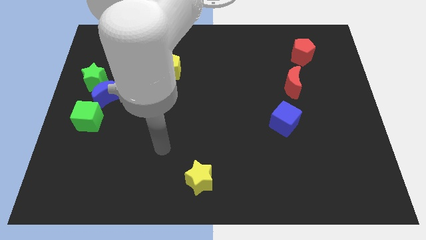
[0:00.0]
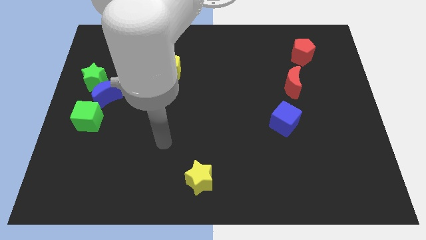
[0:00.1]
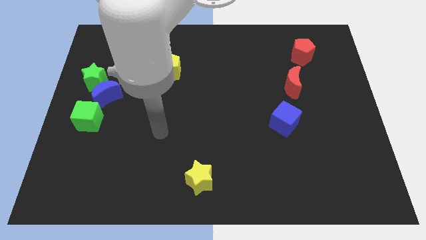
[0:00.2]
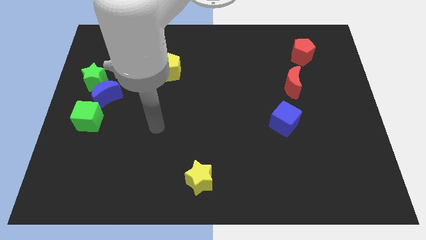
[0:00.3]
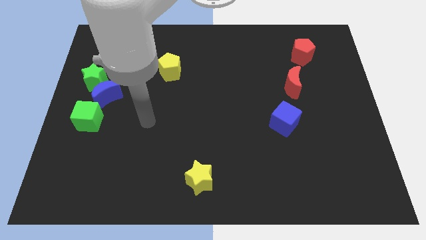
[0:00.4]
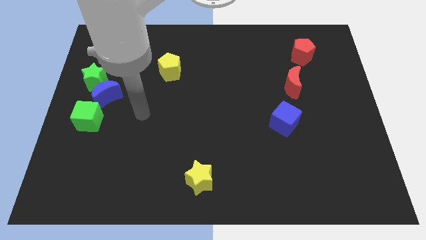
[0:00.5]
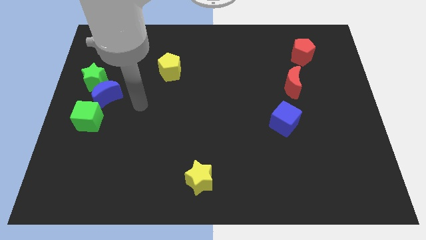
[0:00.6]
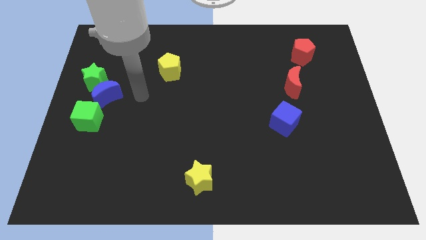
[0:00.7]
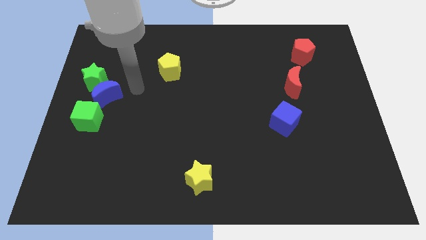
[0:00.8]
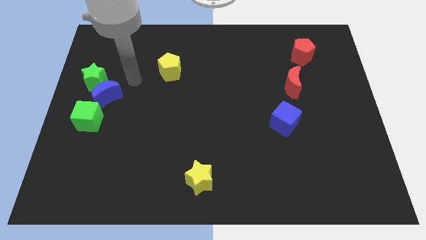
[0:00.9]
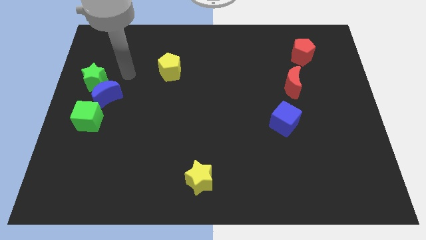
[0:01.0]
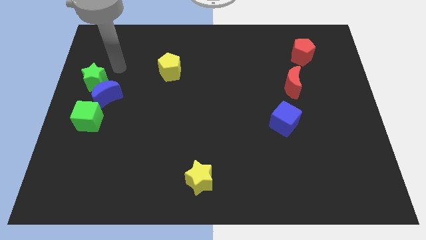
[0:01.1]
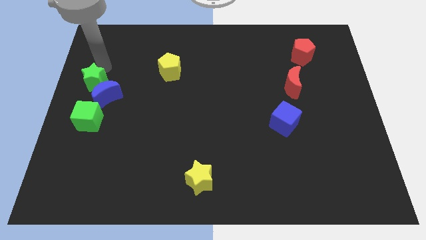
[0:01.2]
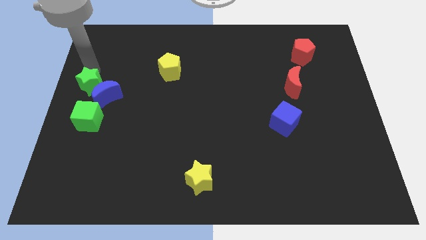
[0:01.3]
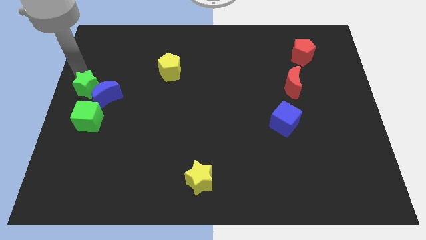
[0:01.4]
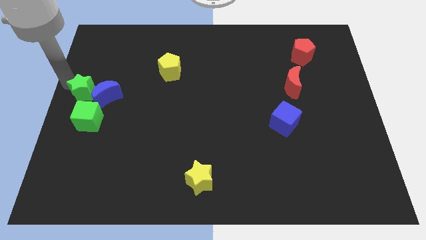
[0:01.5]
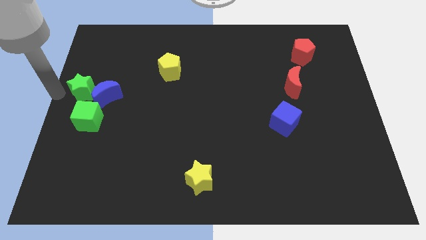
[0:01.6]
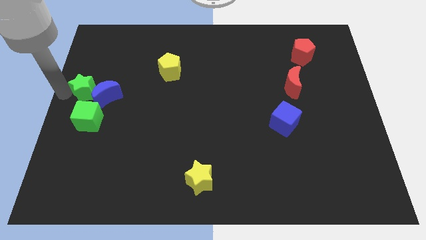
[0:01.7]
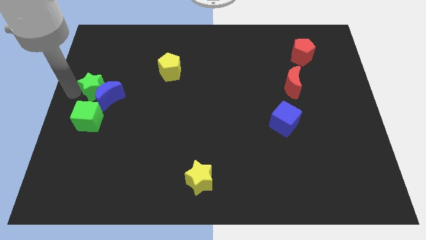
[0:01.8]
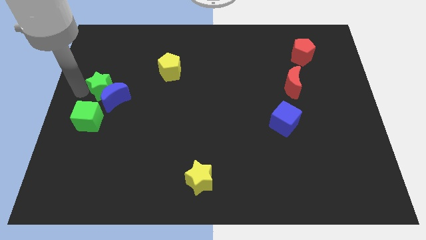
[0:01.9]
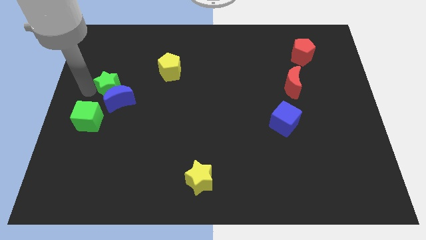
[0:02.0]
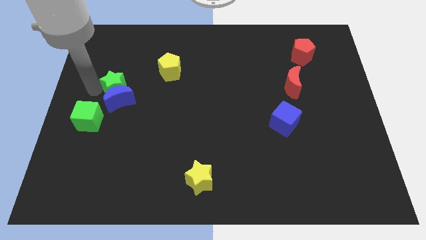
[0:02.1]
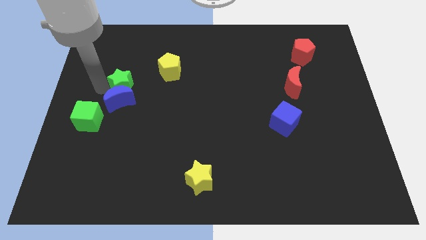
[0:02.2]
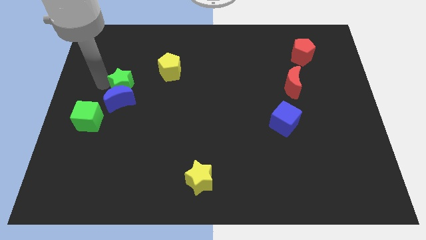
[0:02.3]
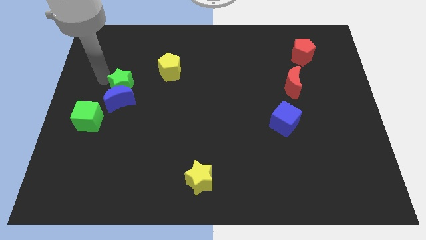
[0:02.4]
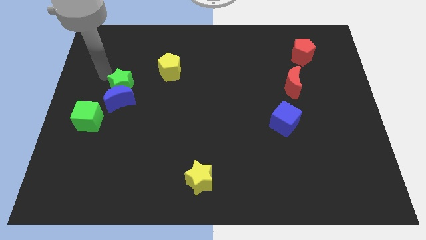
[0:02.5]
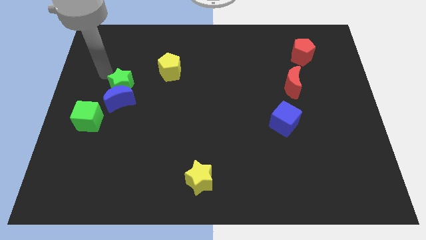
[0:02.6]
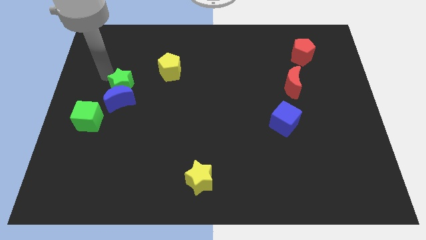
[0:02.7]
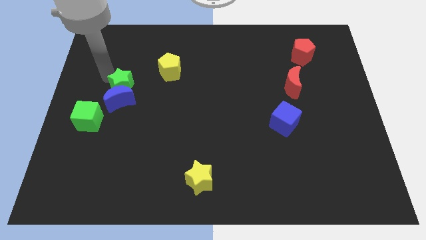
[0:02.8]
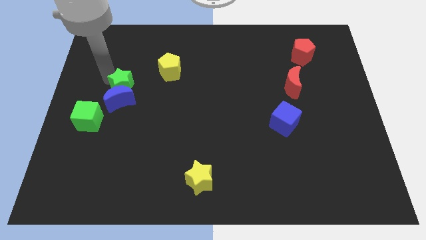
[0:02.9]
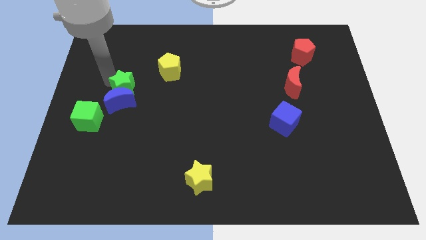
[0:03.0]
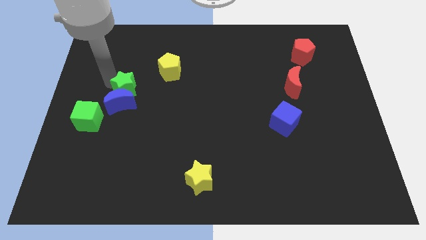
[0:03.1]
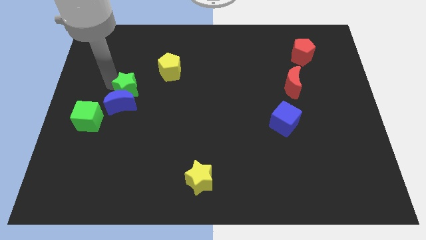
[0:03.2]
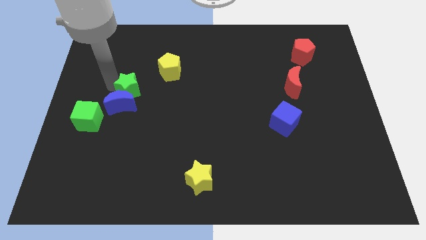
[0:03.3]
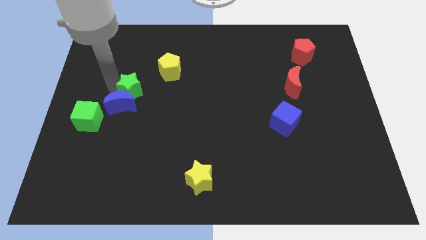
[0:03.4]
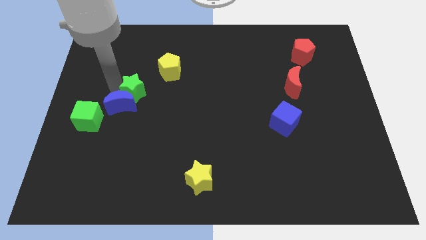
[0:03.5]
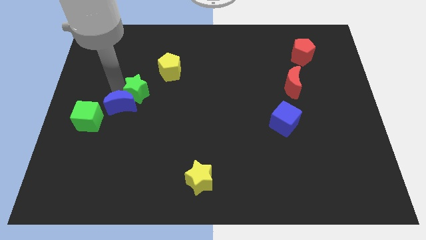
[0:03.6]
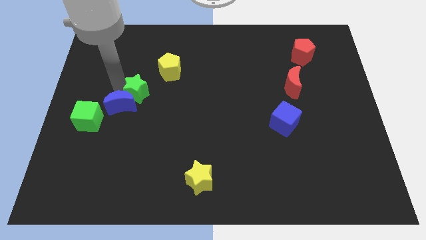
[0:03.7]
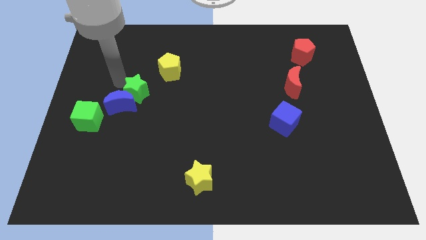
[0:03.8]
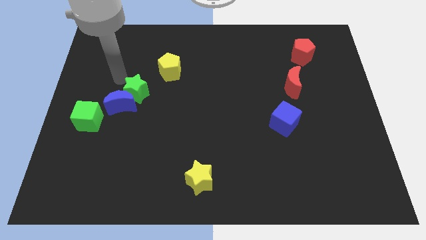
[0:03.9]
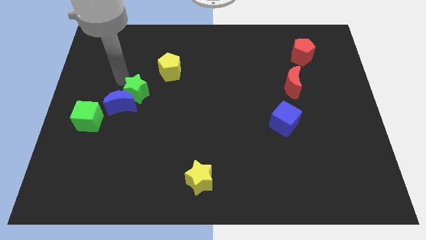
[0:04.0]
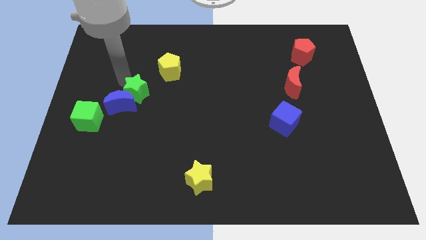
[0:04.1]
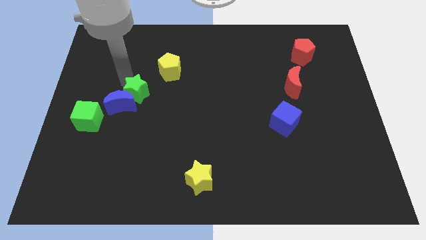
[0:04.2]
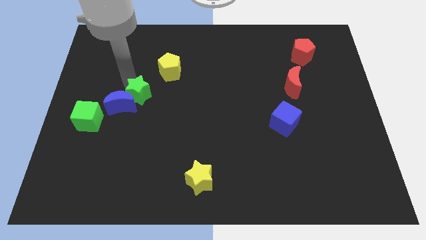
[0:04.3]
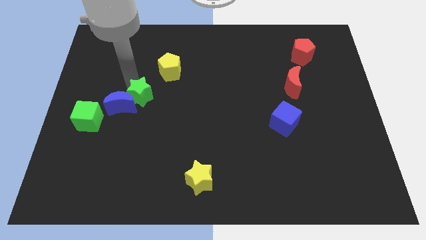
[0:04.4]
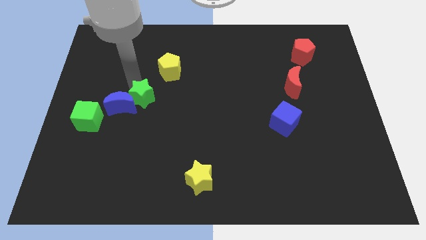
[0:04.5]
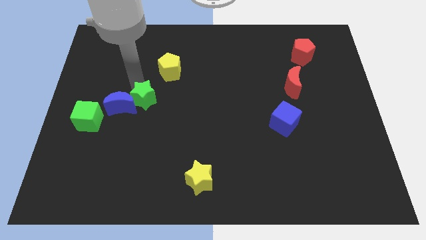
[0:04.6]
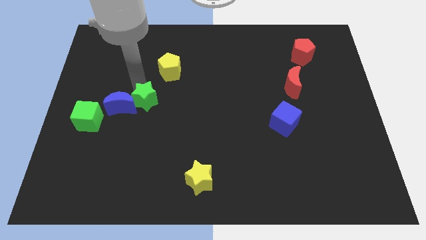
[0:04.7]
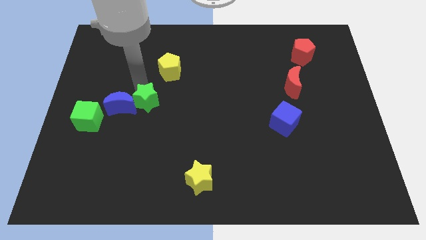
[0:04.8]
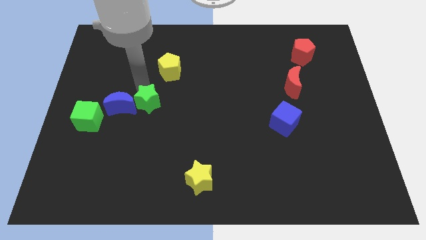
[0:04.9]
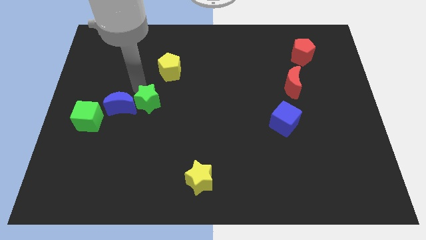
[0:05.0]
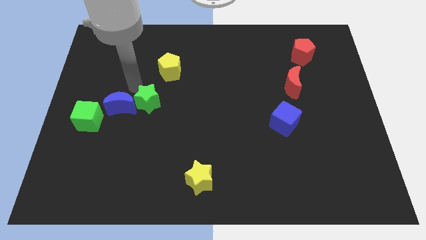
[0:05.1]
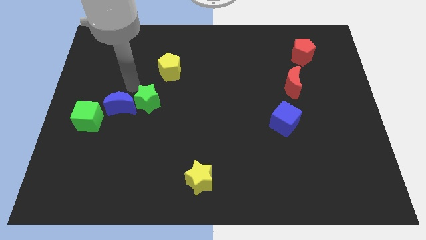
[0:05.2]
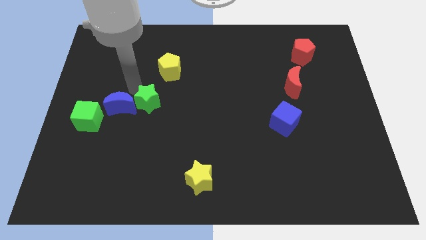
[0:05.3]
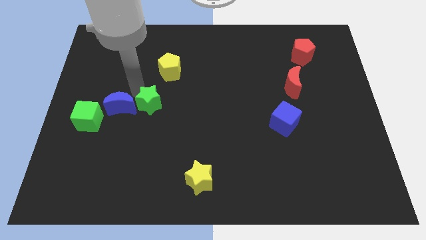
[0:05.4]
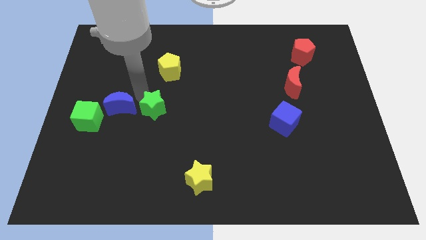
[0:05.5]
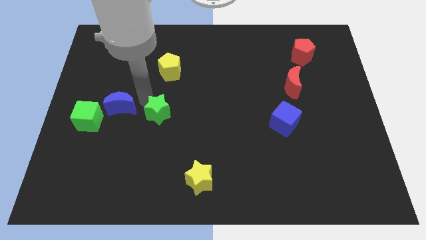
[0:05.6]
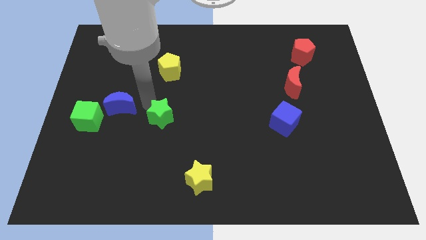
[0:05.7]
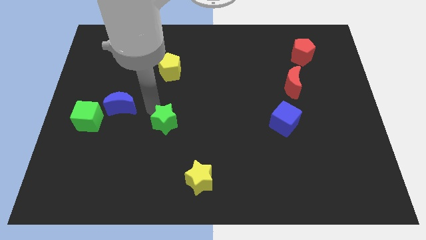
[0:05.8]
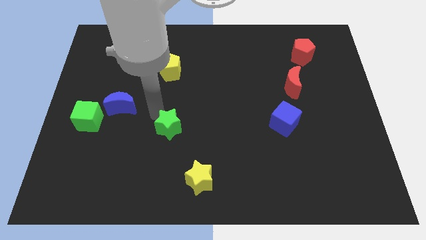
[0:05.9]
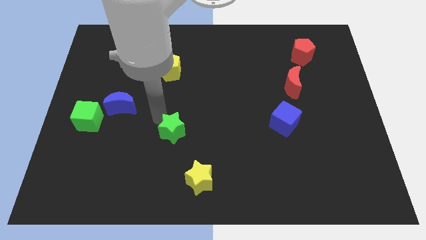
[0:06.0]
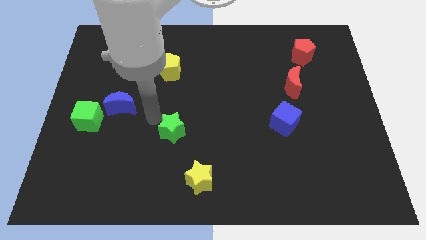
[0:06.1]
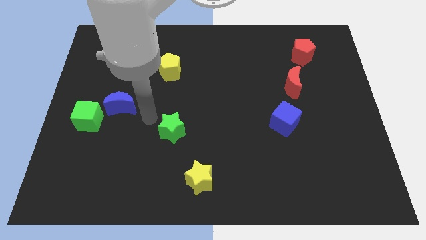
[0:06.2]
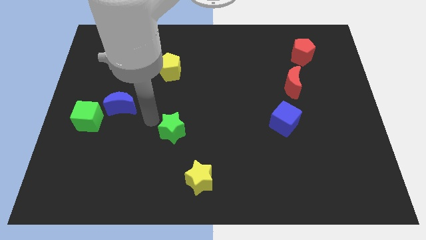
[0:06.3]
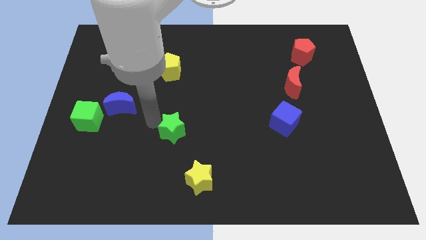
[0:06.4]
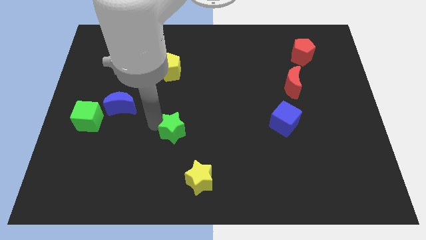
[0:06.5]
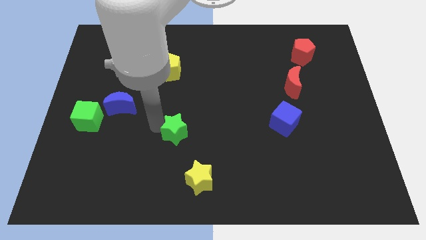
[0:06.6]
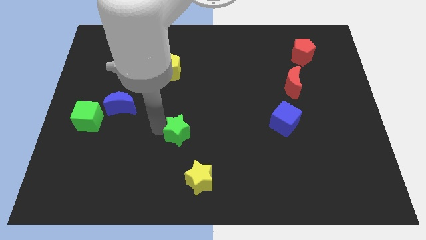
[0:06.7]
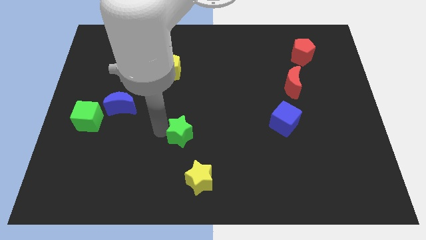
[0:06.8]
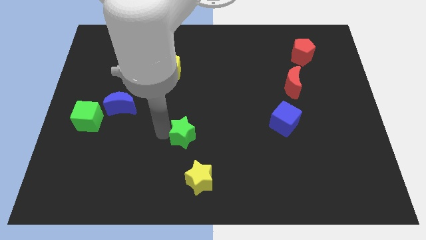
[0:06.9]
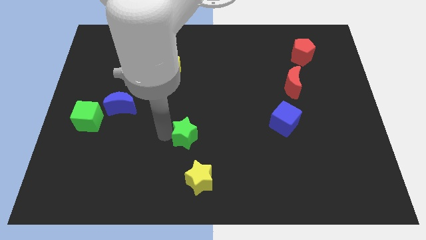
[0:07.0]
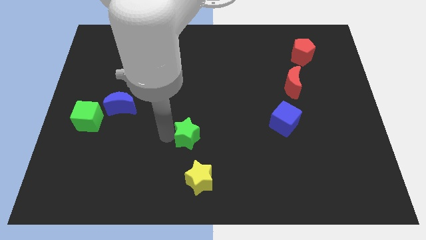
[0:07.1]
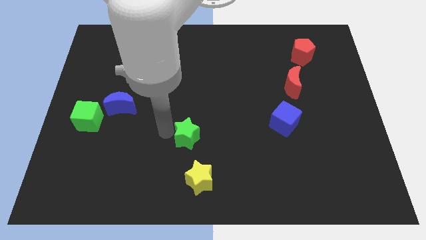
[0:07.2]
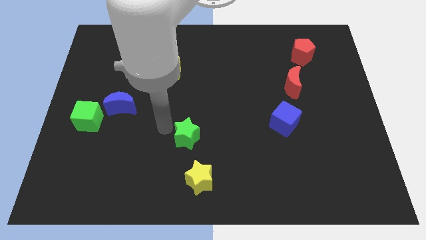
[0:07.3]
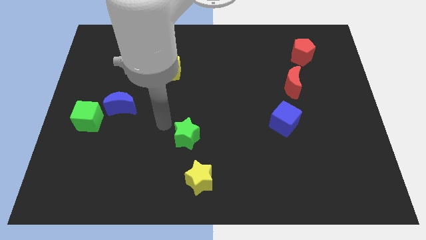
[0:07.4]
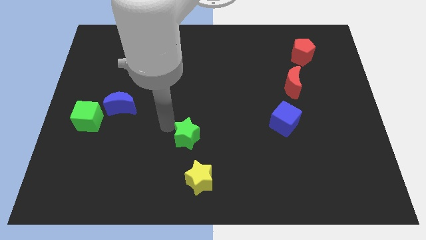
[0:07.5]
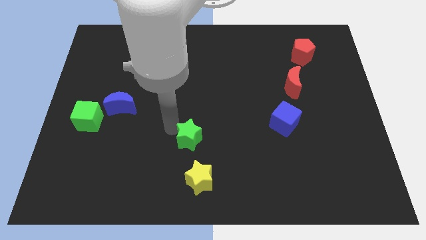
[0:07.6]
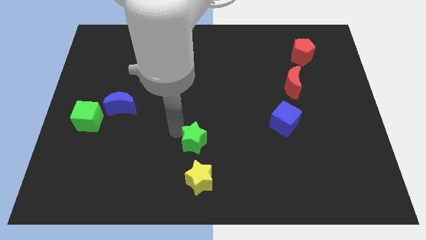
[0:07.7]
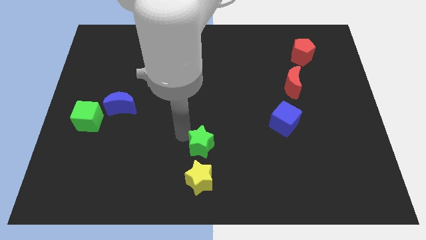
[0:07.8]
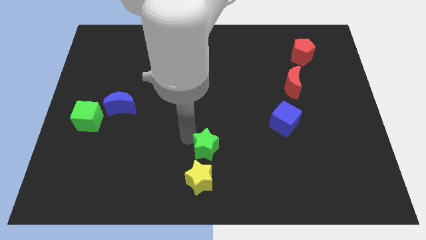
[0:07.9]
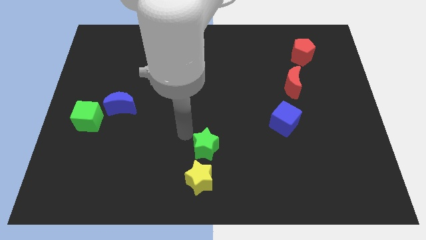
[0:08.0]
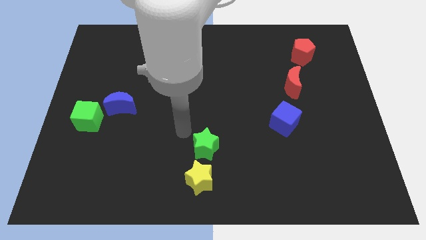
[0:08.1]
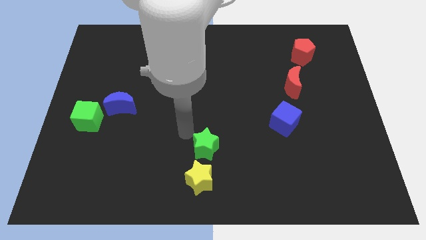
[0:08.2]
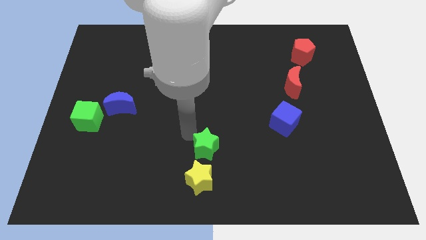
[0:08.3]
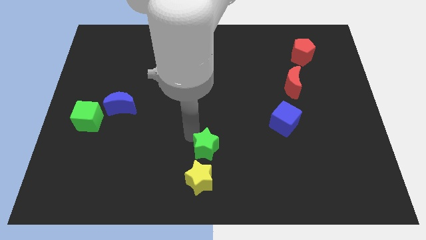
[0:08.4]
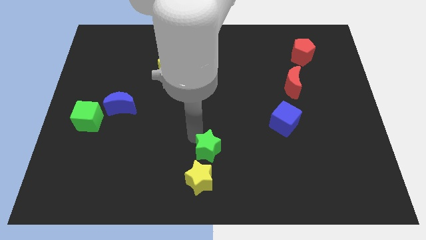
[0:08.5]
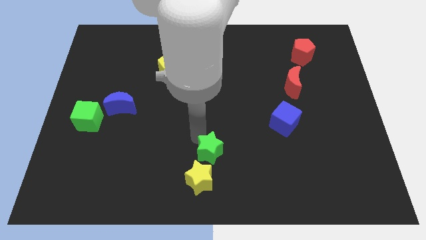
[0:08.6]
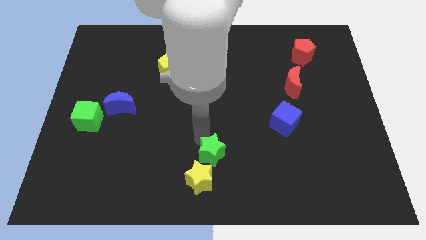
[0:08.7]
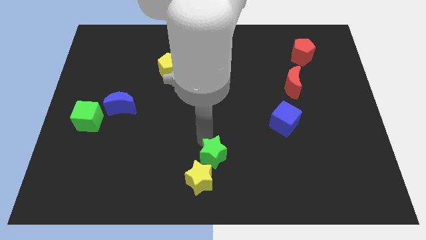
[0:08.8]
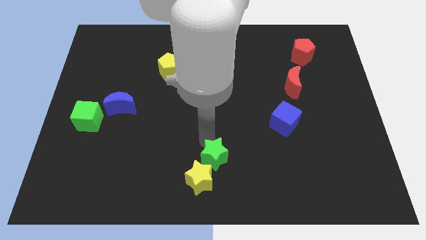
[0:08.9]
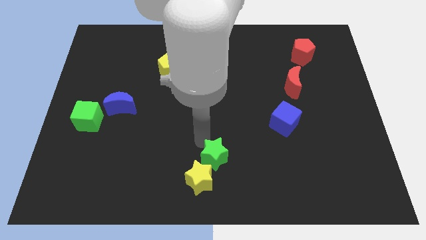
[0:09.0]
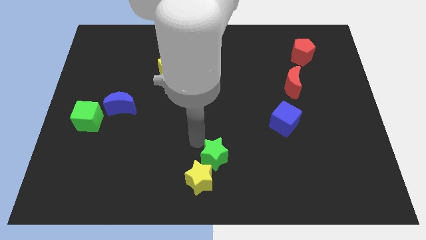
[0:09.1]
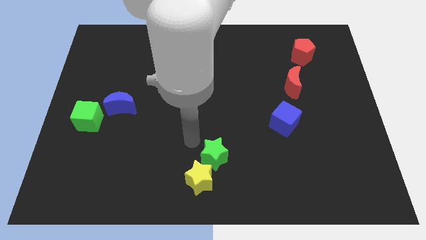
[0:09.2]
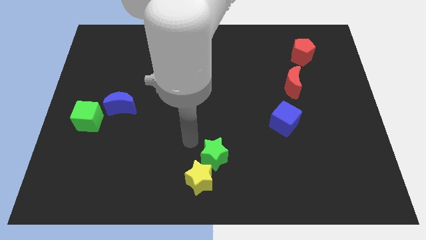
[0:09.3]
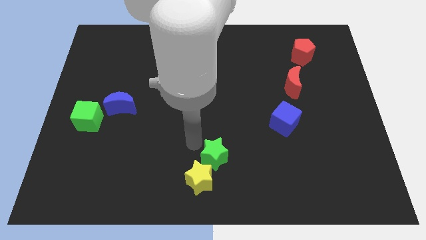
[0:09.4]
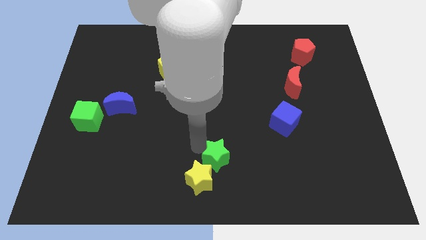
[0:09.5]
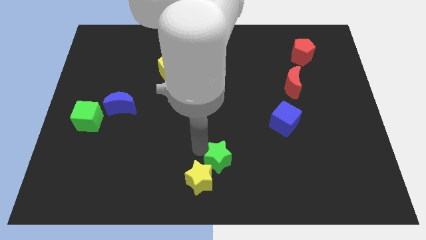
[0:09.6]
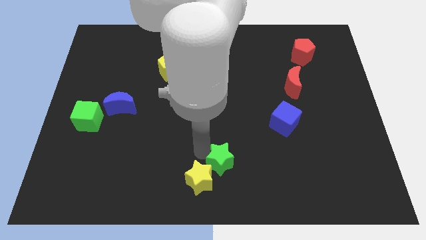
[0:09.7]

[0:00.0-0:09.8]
slide the green star right of the yellow star
